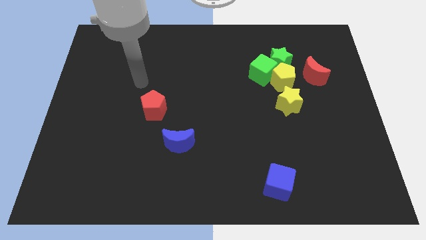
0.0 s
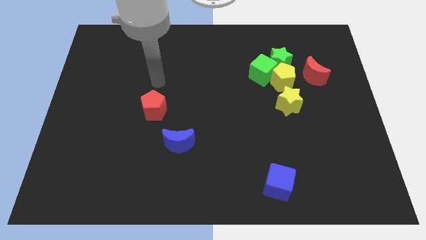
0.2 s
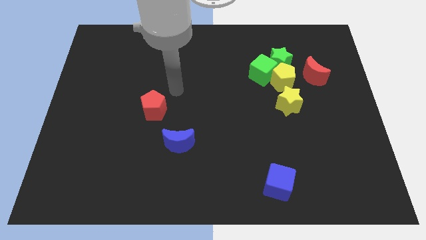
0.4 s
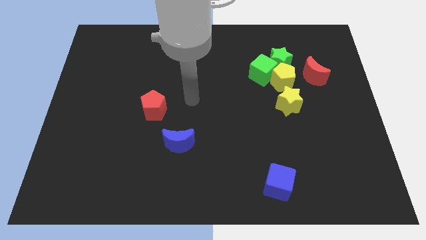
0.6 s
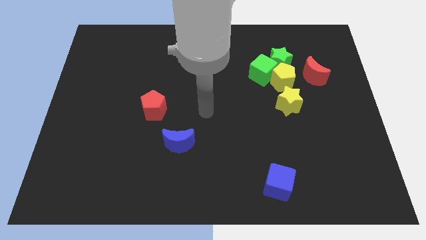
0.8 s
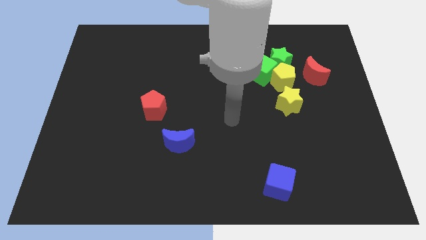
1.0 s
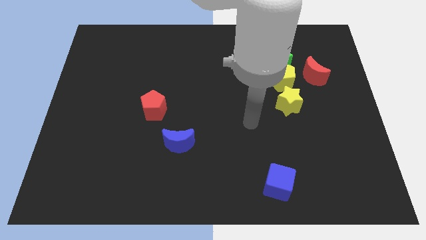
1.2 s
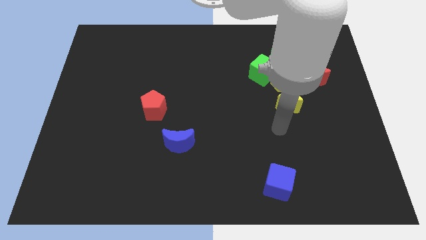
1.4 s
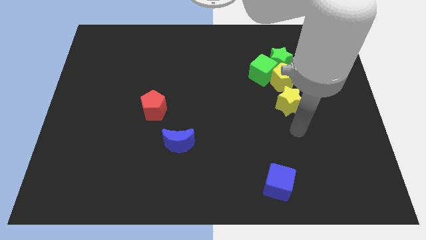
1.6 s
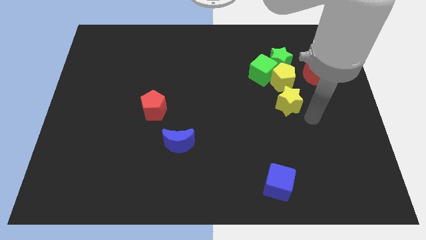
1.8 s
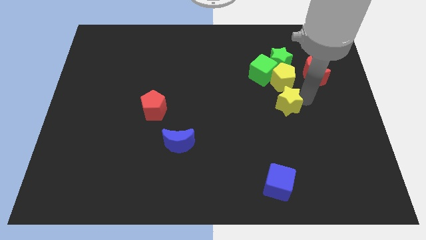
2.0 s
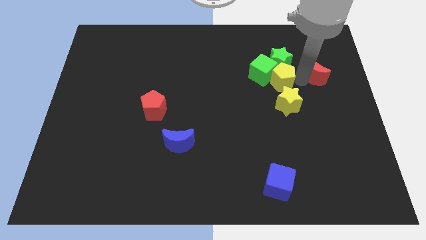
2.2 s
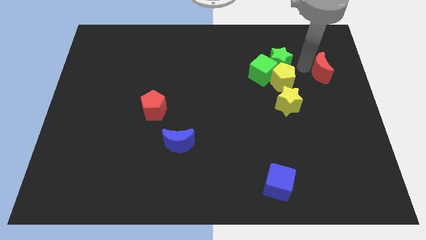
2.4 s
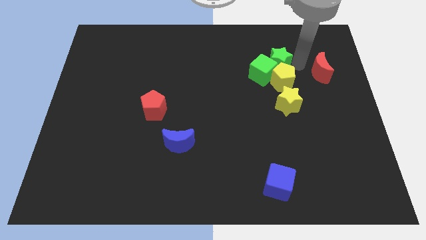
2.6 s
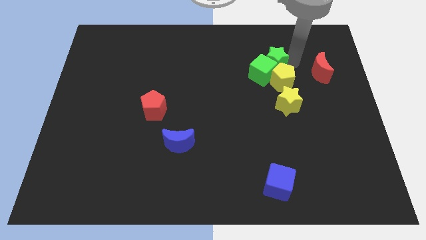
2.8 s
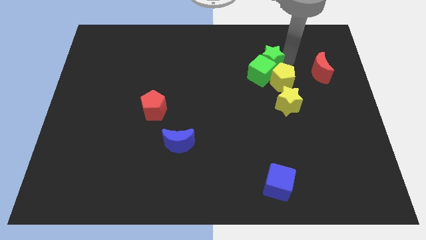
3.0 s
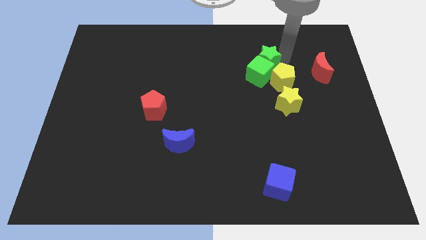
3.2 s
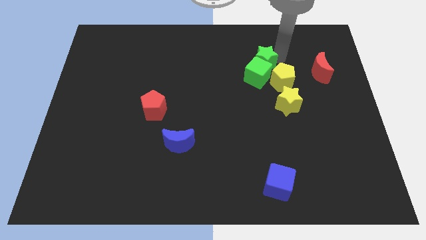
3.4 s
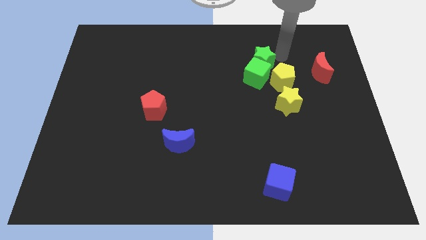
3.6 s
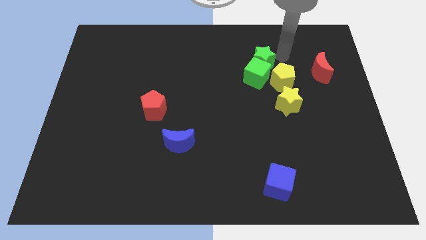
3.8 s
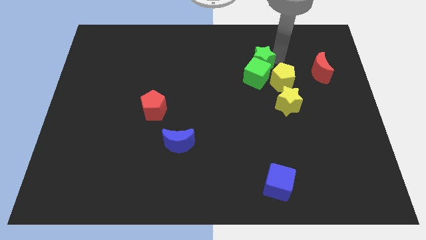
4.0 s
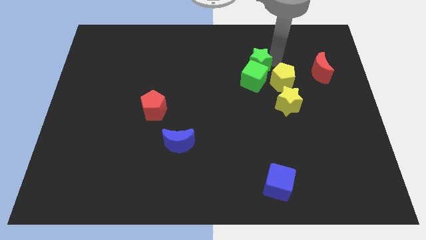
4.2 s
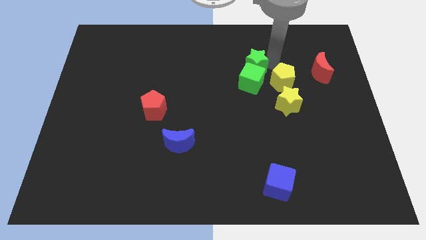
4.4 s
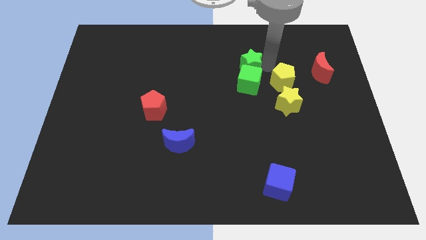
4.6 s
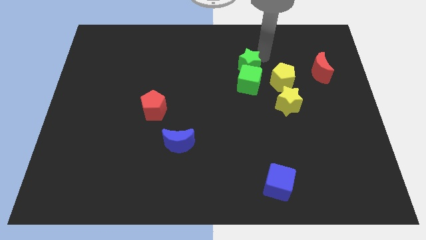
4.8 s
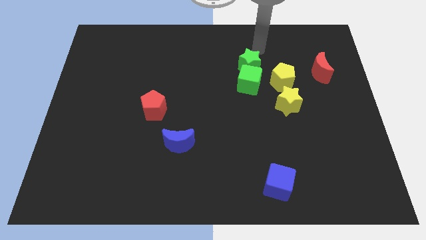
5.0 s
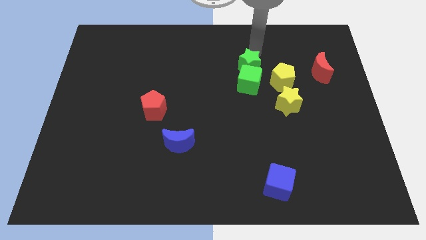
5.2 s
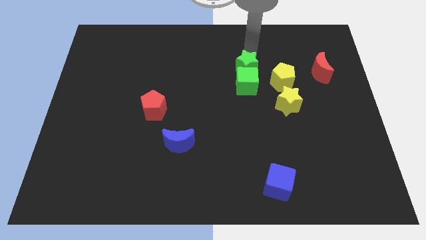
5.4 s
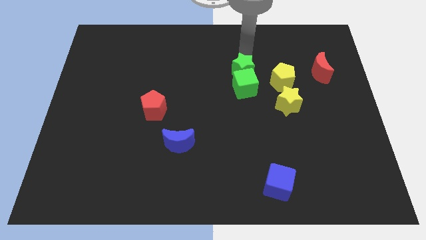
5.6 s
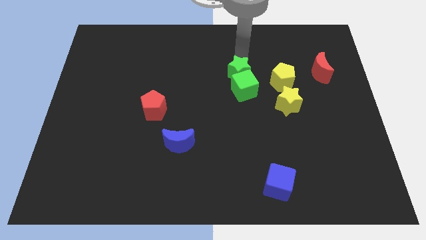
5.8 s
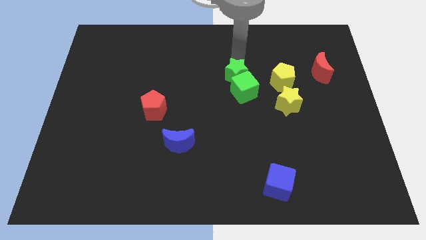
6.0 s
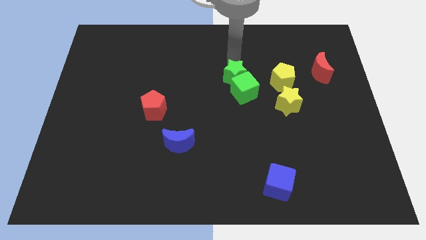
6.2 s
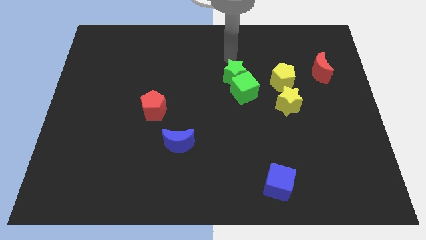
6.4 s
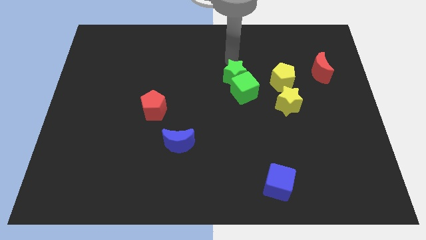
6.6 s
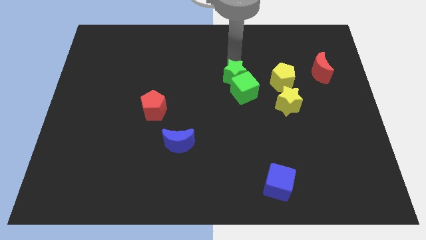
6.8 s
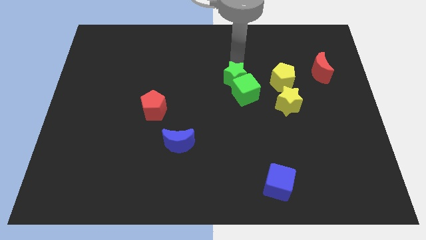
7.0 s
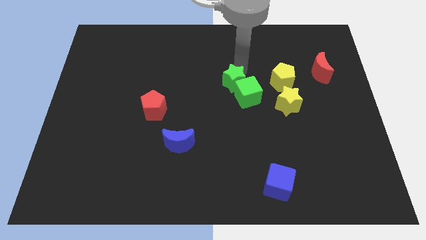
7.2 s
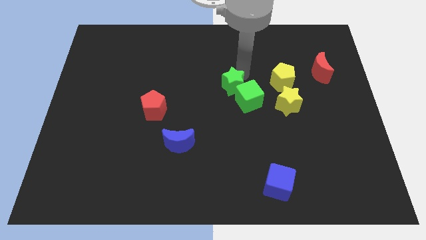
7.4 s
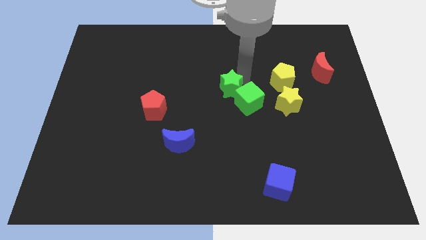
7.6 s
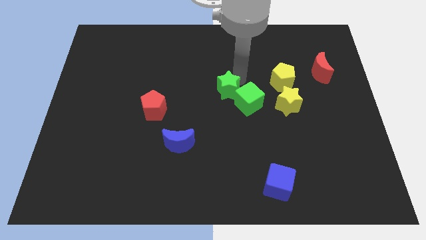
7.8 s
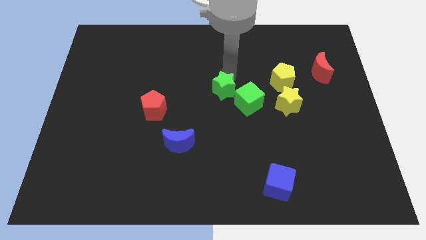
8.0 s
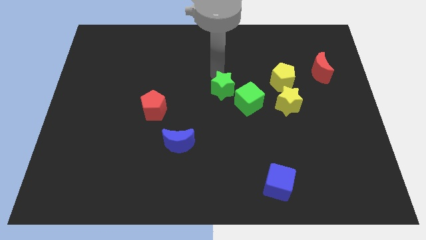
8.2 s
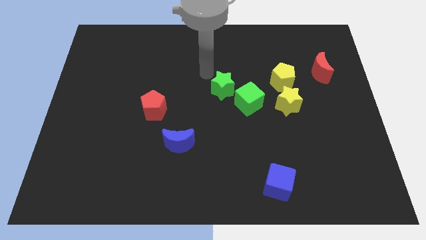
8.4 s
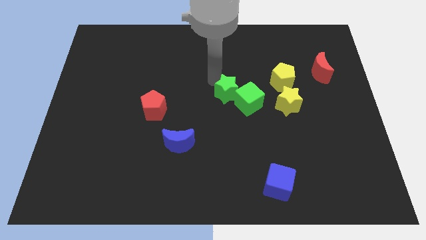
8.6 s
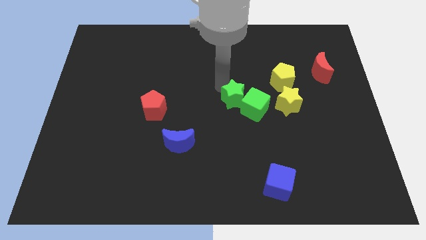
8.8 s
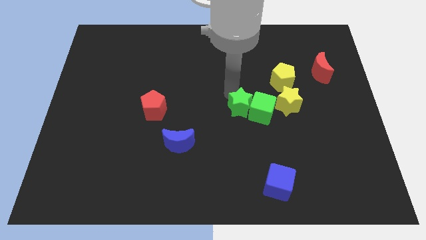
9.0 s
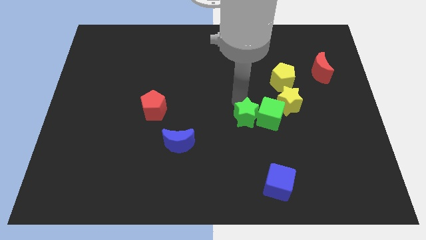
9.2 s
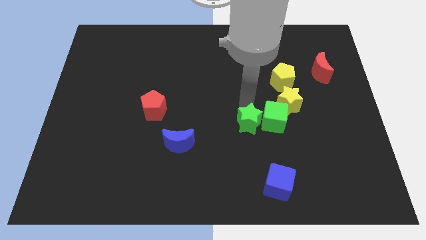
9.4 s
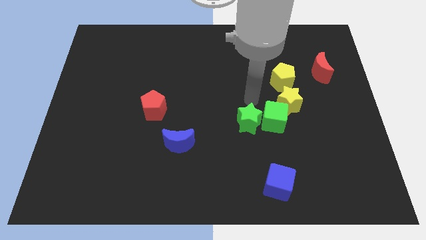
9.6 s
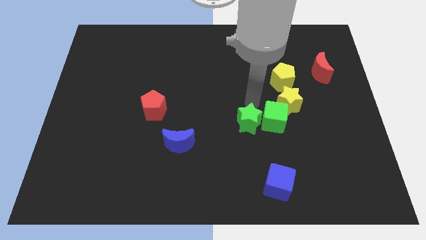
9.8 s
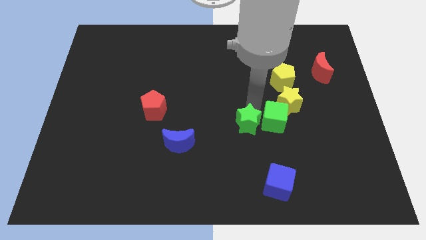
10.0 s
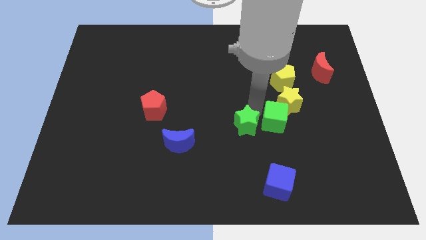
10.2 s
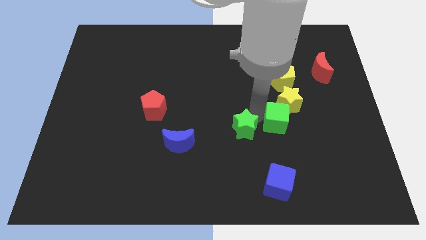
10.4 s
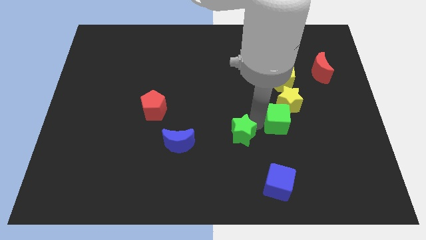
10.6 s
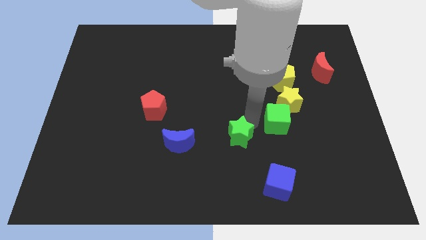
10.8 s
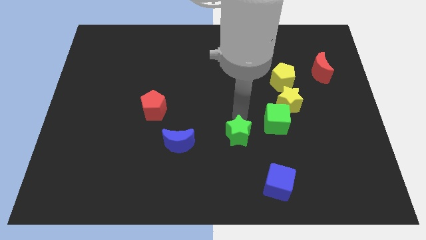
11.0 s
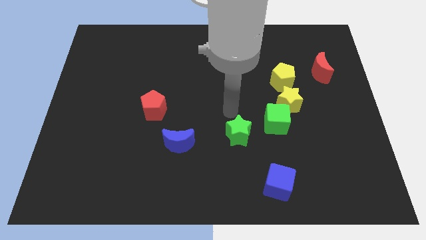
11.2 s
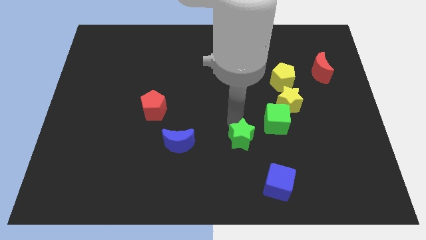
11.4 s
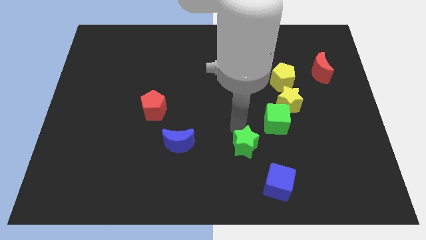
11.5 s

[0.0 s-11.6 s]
push the green star to the top left of the blue cube

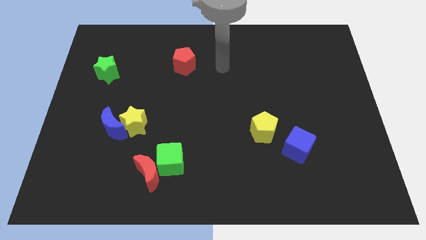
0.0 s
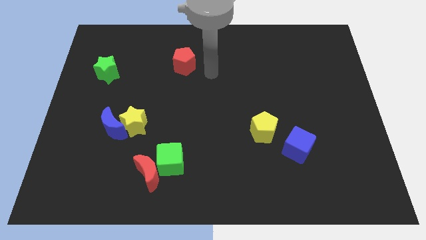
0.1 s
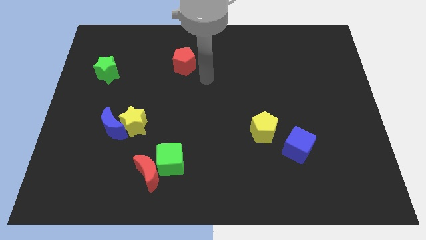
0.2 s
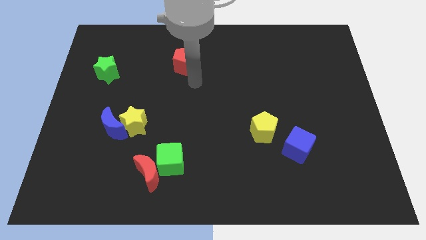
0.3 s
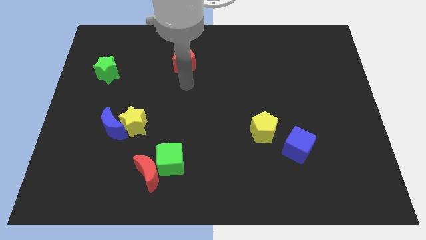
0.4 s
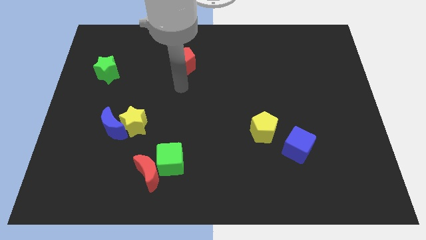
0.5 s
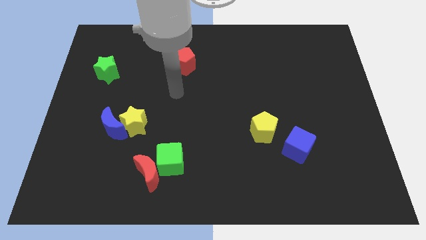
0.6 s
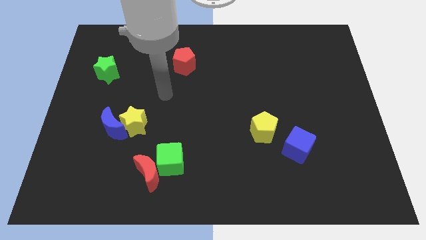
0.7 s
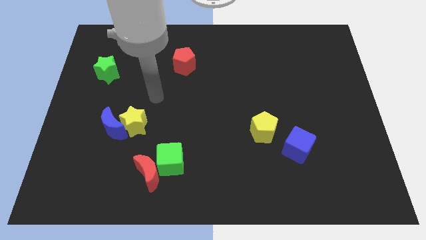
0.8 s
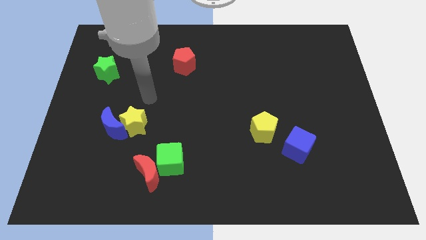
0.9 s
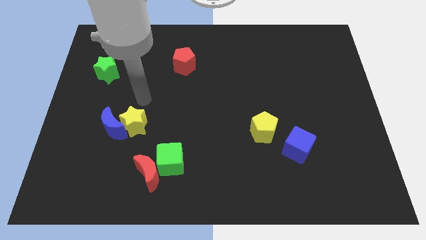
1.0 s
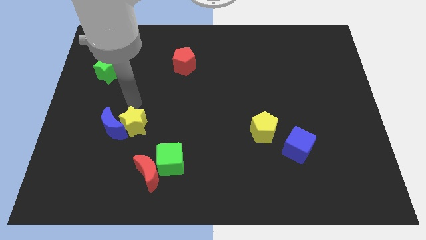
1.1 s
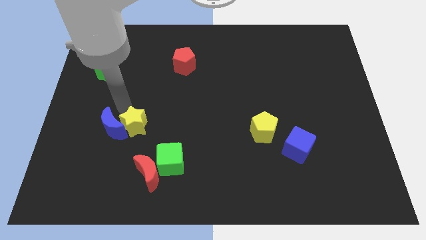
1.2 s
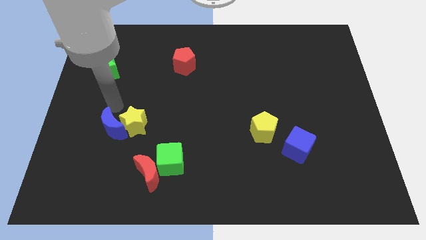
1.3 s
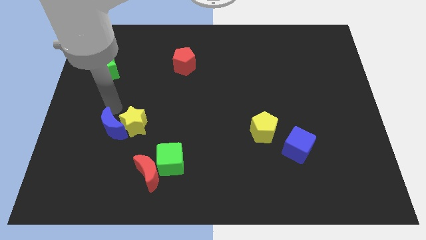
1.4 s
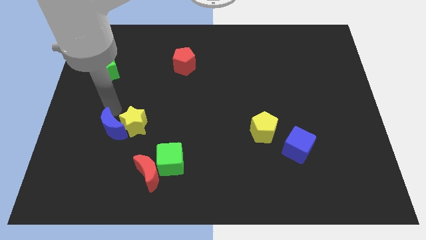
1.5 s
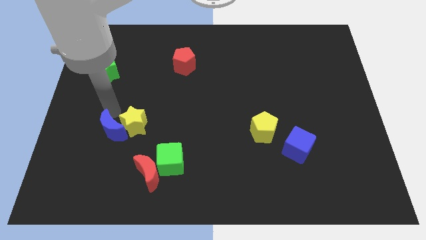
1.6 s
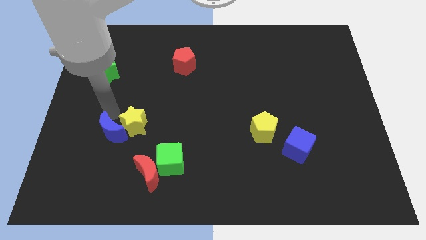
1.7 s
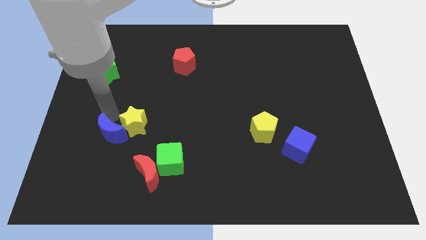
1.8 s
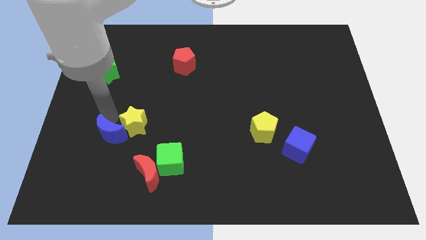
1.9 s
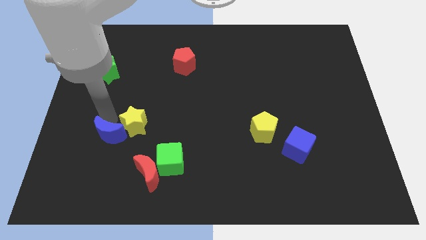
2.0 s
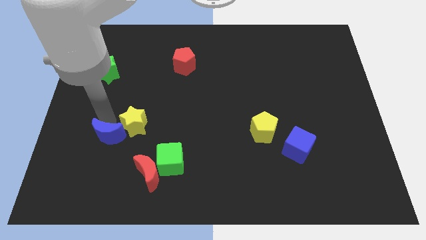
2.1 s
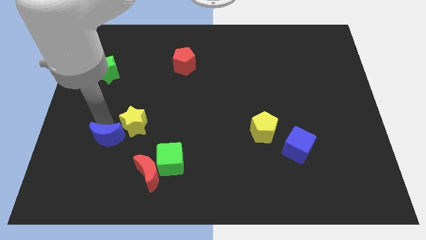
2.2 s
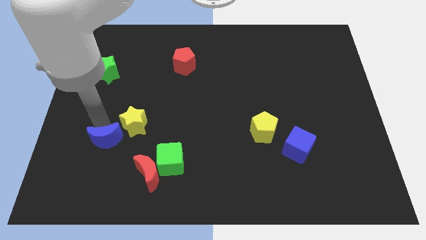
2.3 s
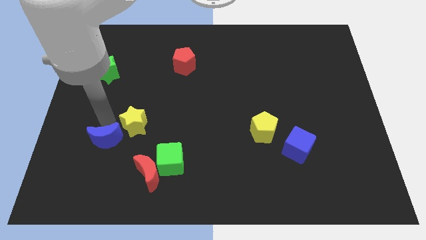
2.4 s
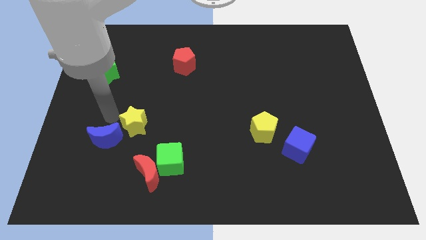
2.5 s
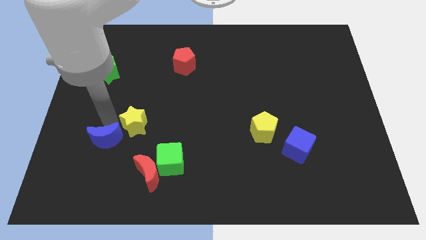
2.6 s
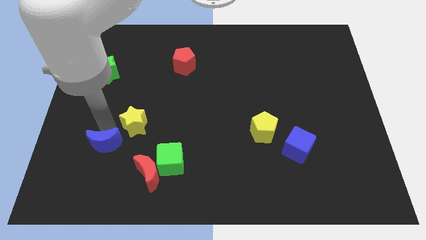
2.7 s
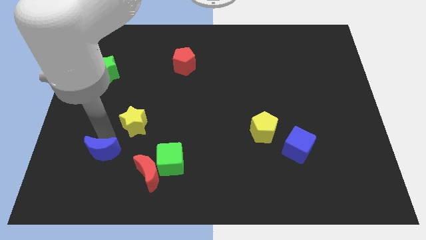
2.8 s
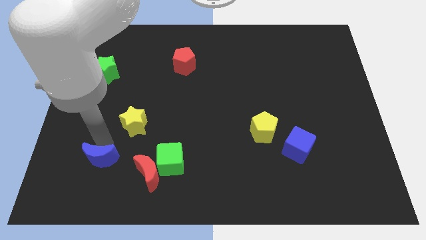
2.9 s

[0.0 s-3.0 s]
slide the blue moon just left of the red moon
